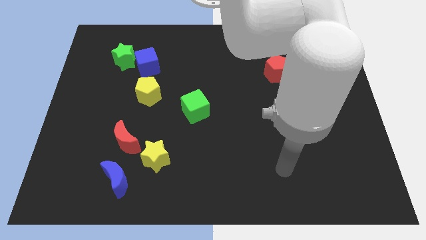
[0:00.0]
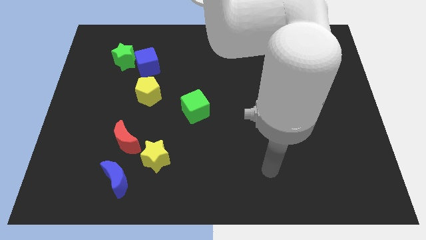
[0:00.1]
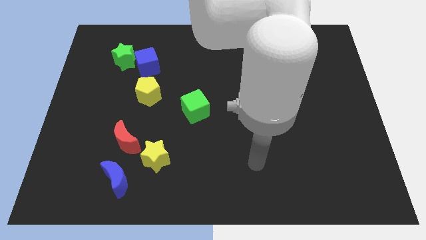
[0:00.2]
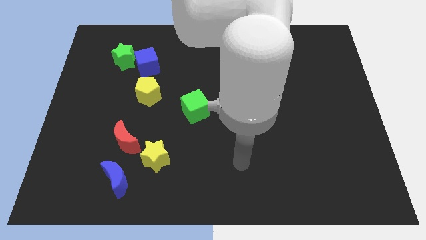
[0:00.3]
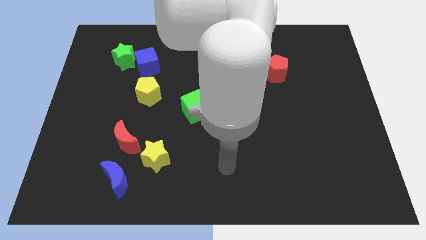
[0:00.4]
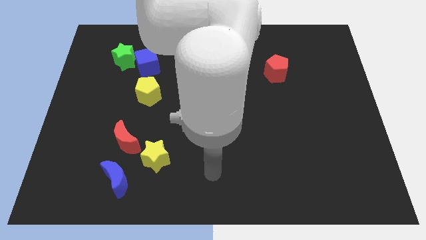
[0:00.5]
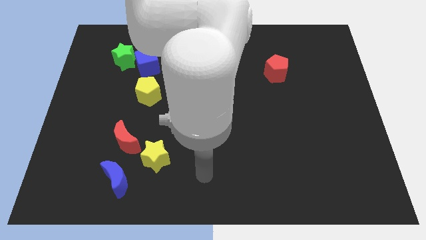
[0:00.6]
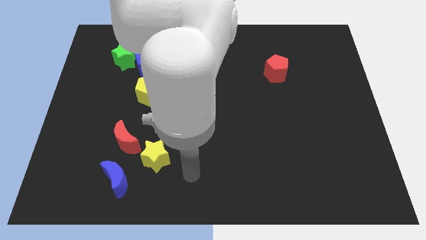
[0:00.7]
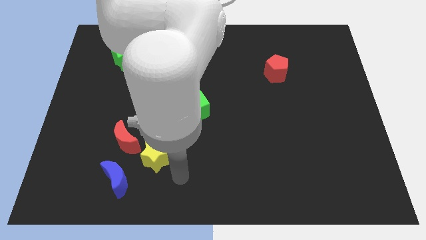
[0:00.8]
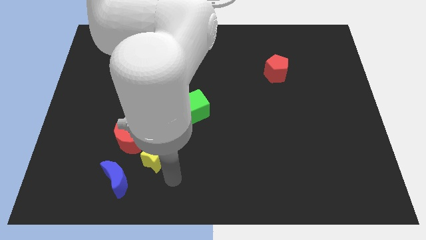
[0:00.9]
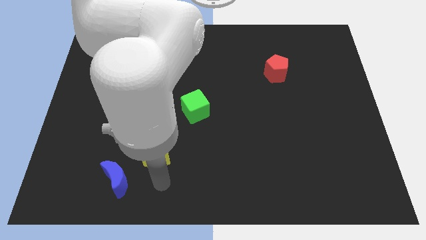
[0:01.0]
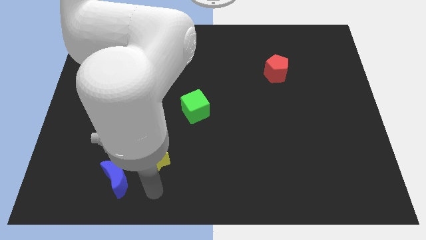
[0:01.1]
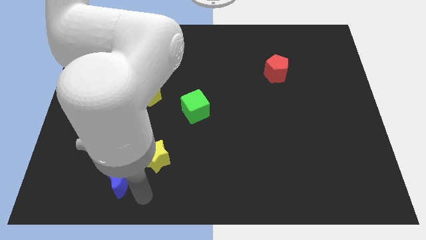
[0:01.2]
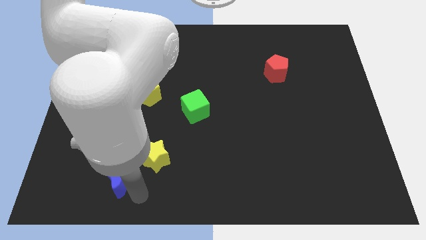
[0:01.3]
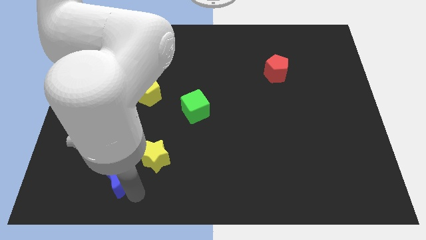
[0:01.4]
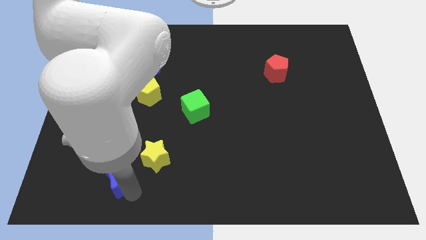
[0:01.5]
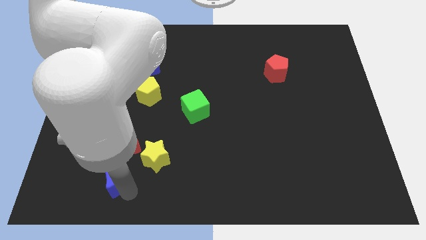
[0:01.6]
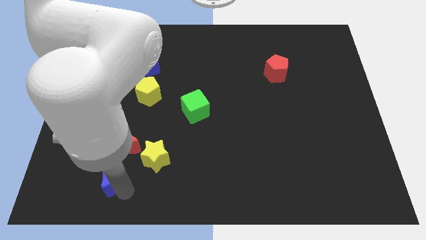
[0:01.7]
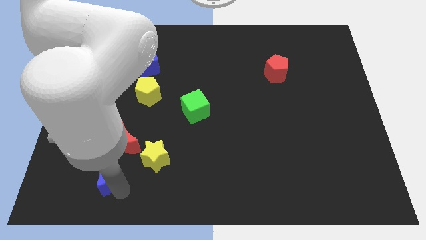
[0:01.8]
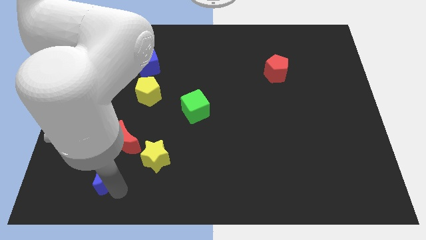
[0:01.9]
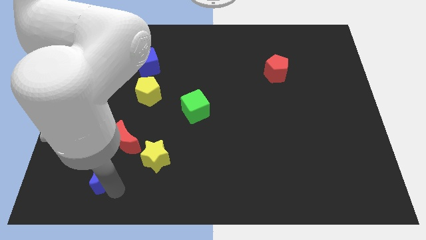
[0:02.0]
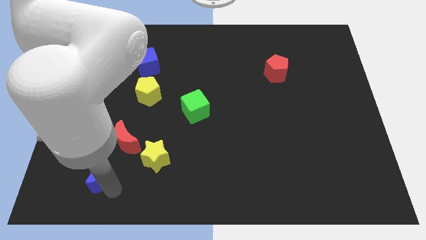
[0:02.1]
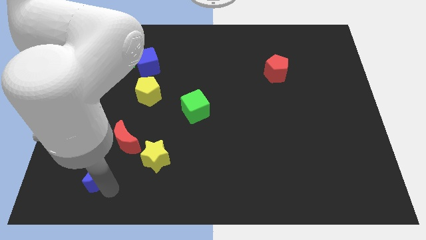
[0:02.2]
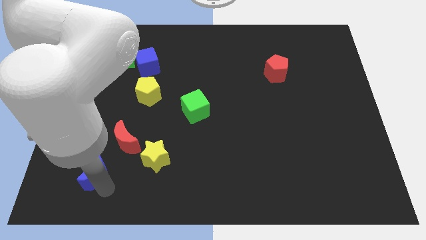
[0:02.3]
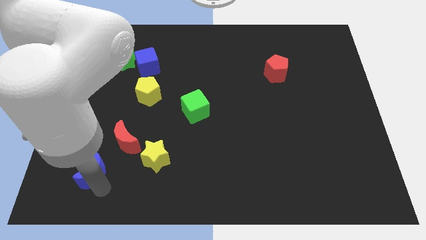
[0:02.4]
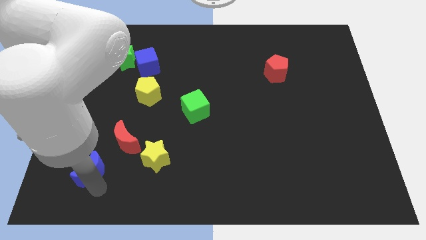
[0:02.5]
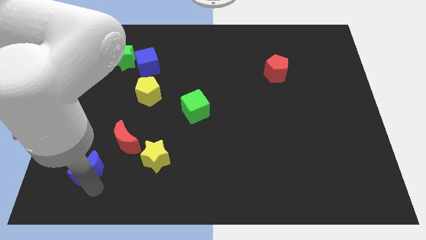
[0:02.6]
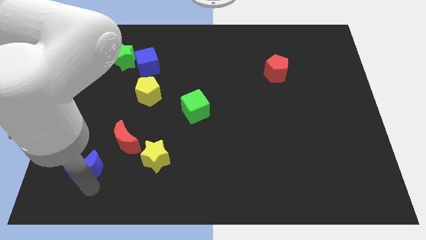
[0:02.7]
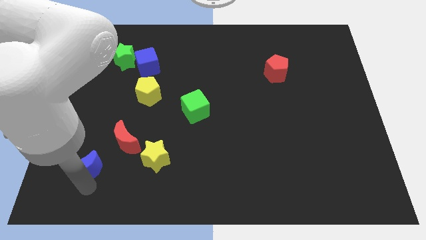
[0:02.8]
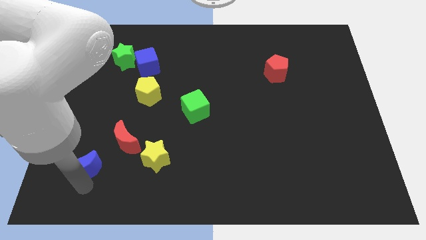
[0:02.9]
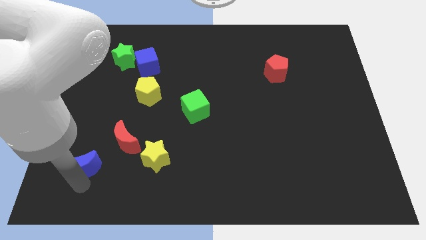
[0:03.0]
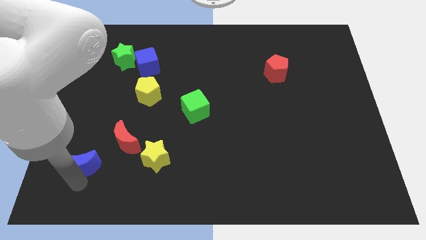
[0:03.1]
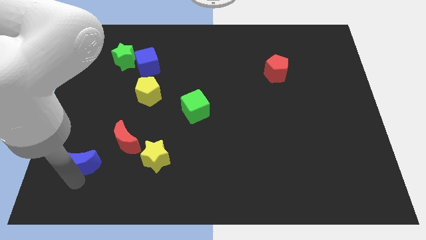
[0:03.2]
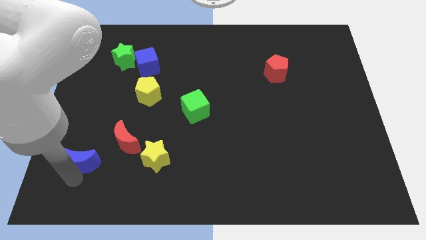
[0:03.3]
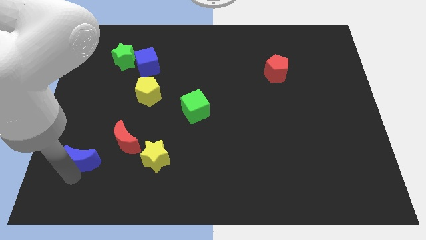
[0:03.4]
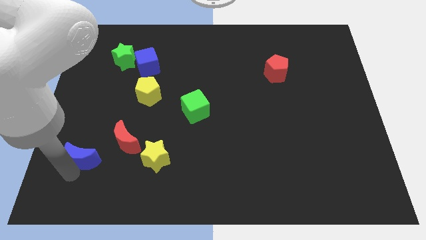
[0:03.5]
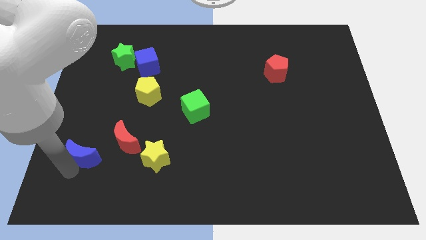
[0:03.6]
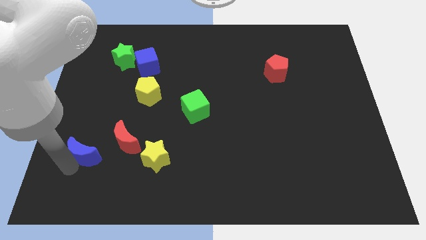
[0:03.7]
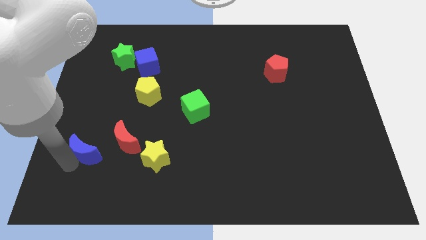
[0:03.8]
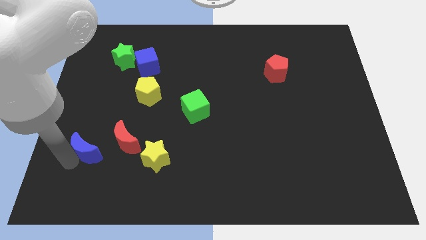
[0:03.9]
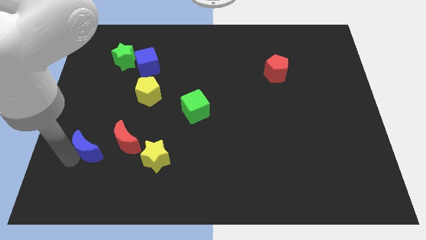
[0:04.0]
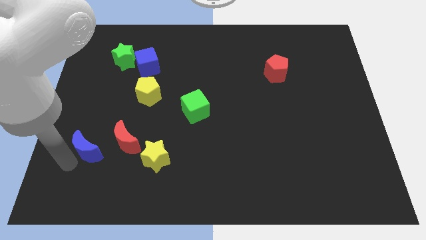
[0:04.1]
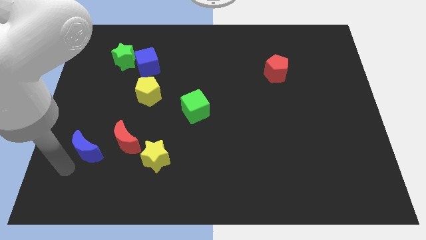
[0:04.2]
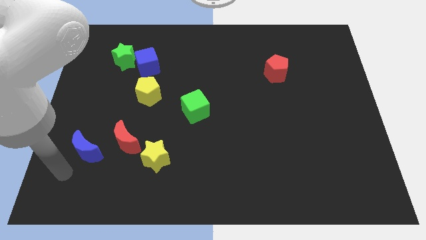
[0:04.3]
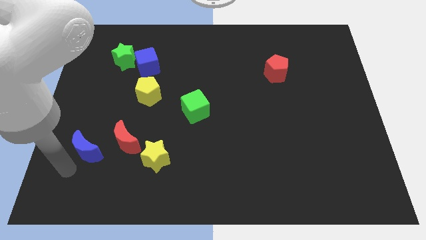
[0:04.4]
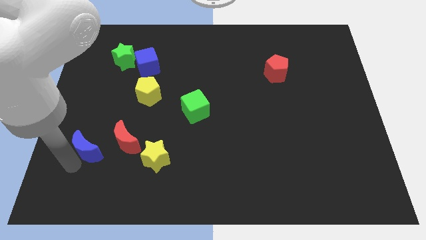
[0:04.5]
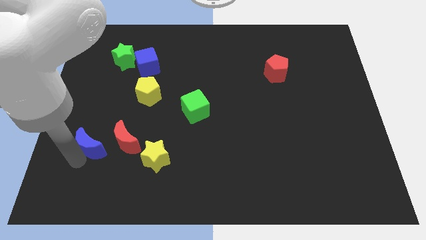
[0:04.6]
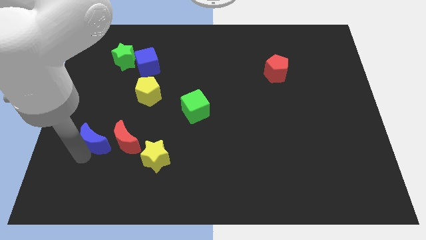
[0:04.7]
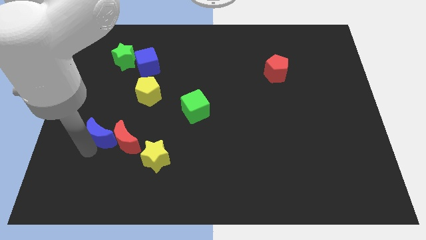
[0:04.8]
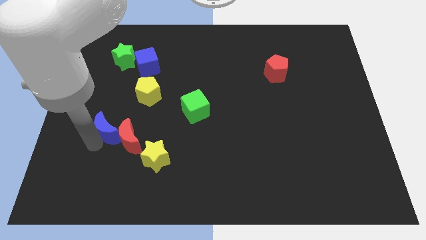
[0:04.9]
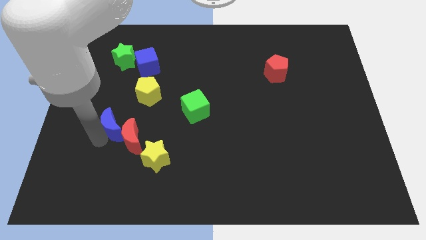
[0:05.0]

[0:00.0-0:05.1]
put the blue moon to the bottom left of the yellow pentagon
